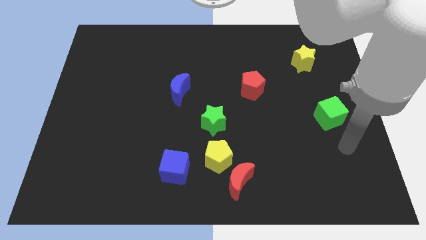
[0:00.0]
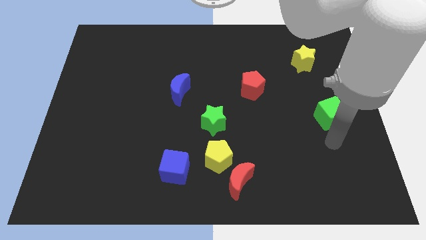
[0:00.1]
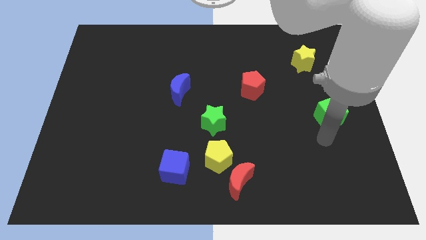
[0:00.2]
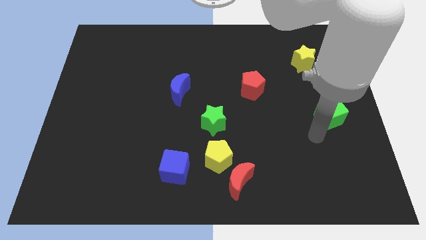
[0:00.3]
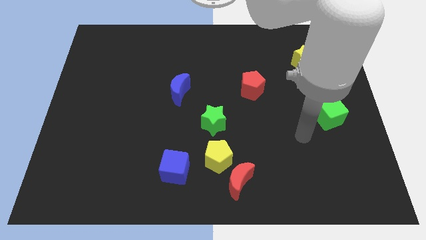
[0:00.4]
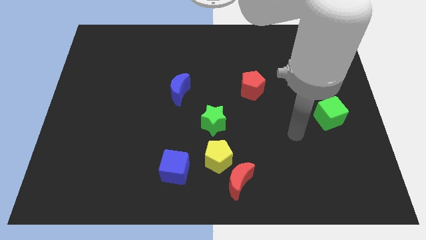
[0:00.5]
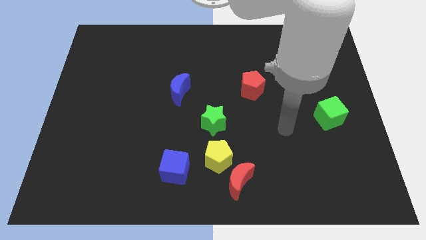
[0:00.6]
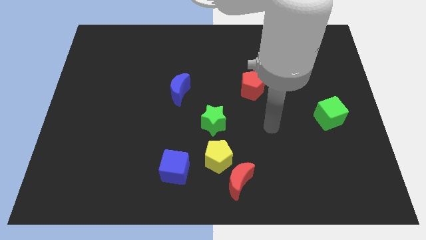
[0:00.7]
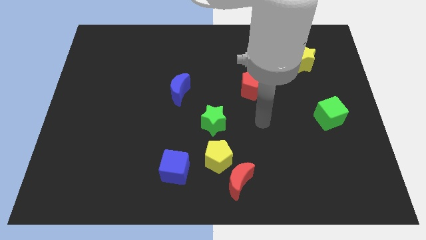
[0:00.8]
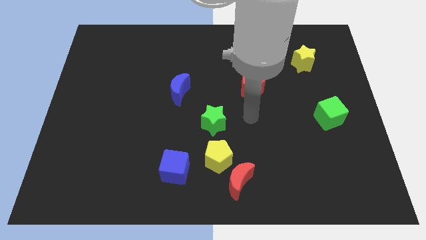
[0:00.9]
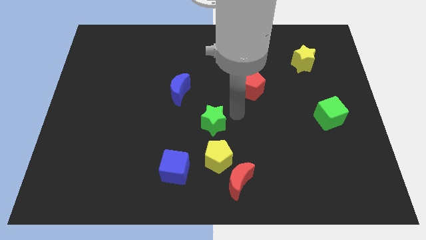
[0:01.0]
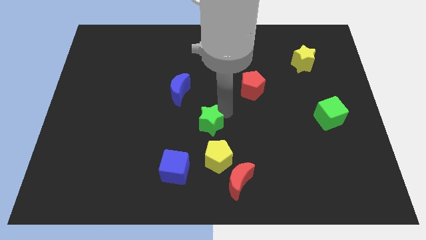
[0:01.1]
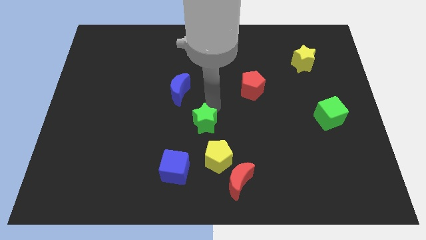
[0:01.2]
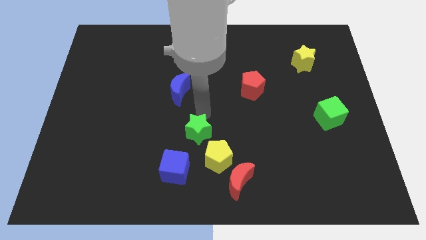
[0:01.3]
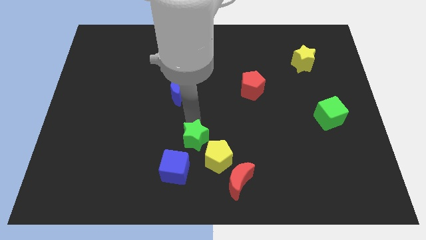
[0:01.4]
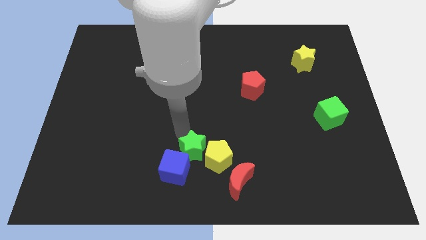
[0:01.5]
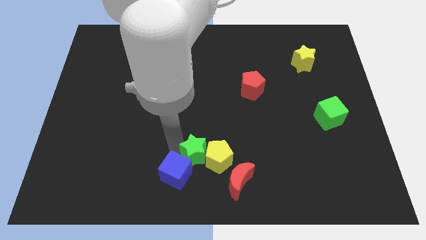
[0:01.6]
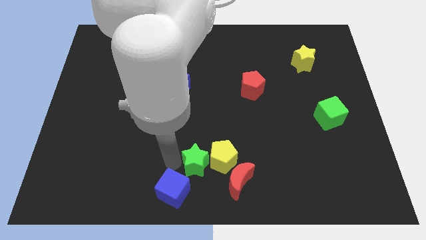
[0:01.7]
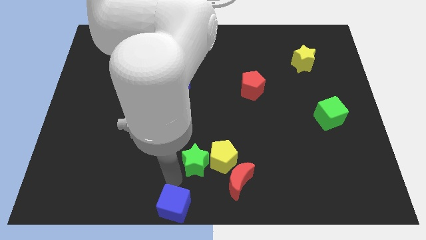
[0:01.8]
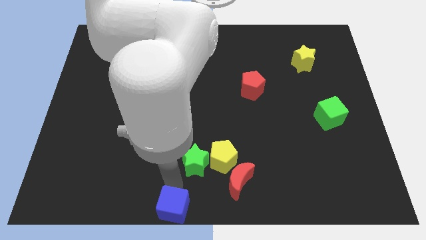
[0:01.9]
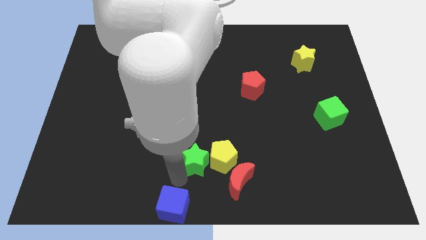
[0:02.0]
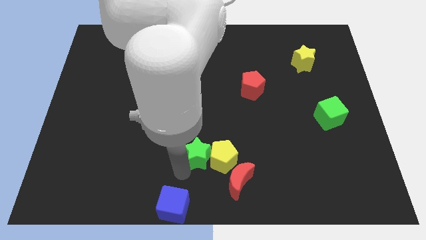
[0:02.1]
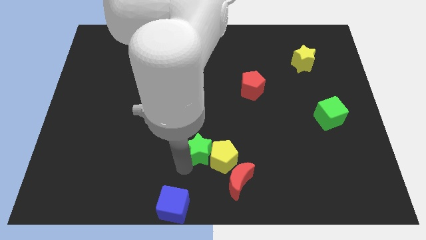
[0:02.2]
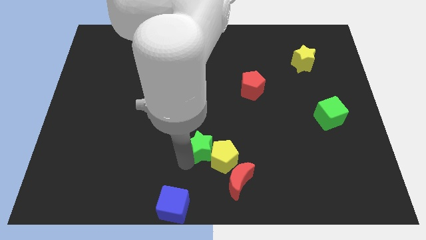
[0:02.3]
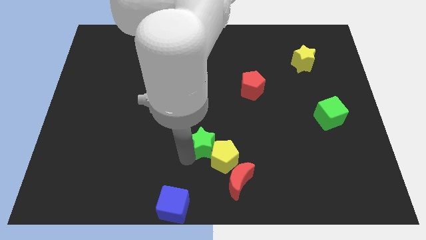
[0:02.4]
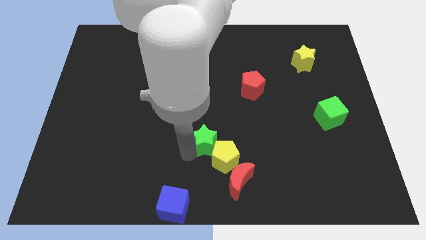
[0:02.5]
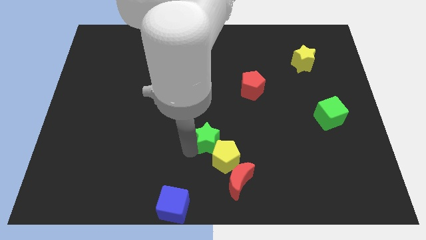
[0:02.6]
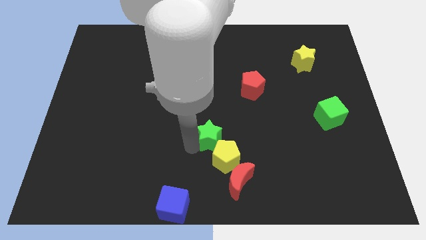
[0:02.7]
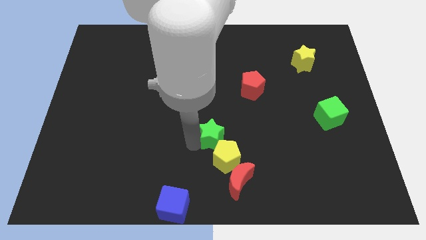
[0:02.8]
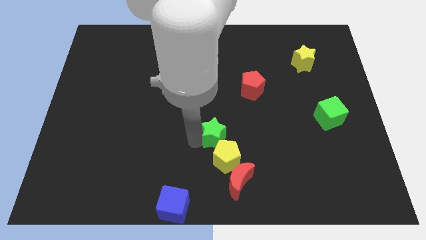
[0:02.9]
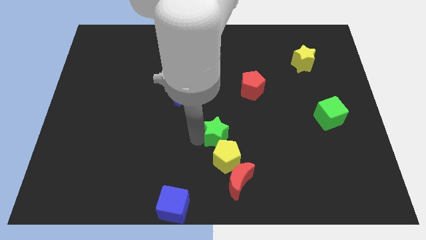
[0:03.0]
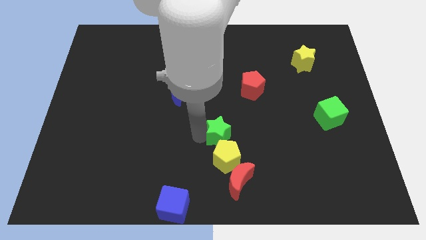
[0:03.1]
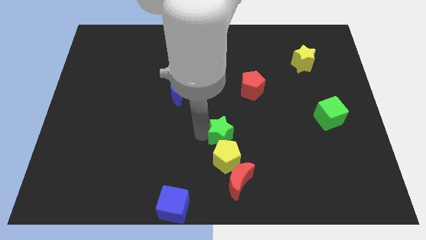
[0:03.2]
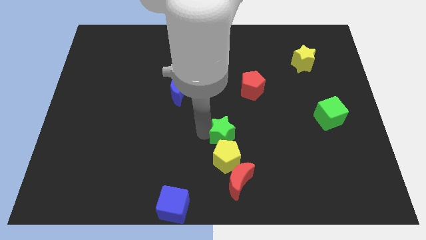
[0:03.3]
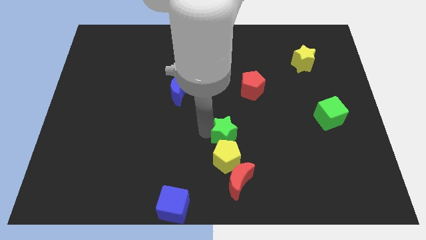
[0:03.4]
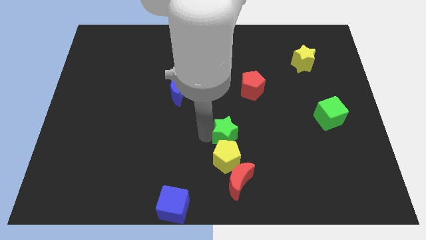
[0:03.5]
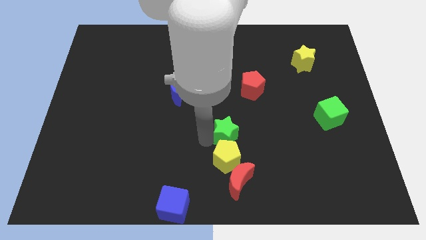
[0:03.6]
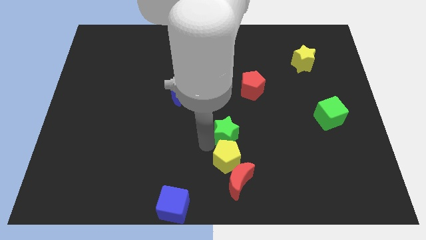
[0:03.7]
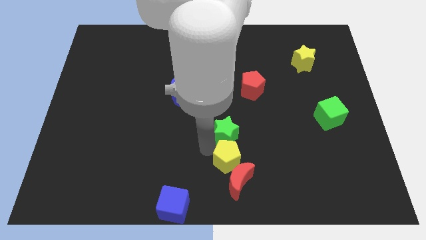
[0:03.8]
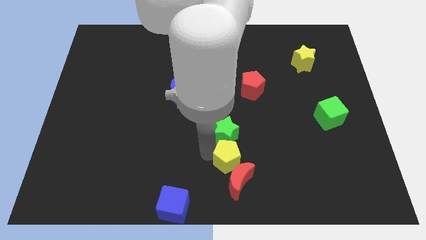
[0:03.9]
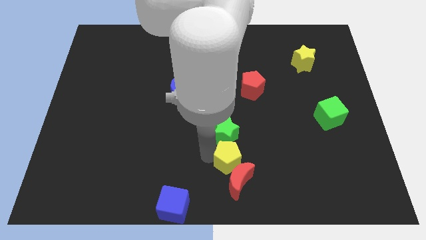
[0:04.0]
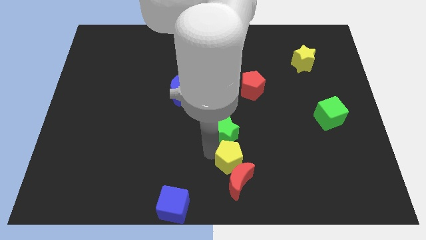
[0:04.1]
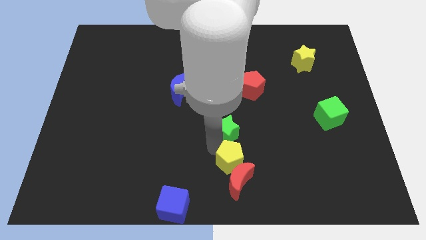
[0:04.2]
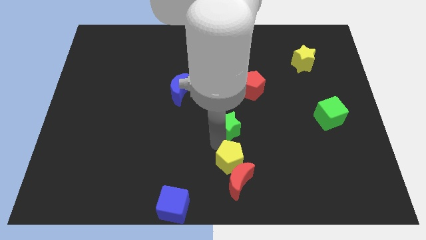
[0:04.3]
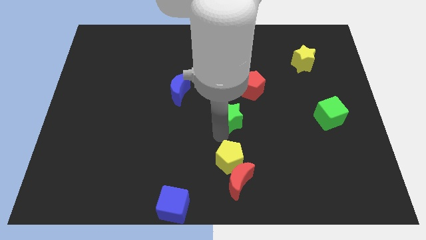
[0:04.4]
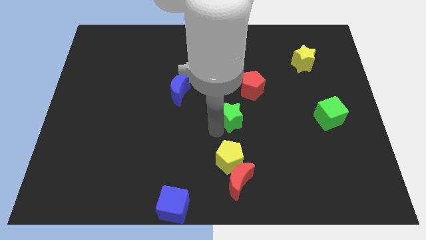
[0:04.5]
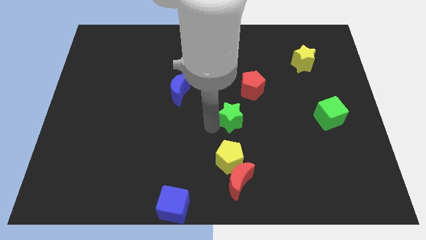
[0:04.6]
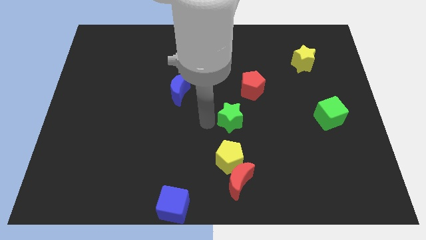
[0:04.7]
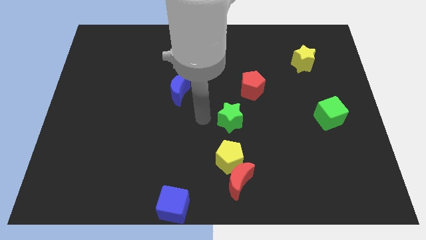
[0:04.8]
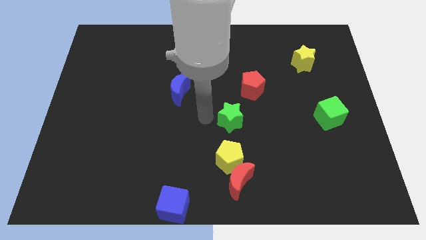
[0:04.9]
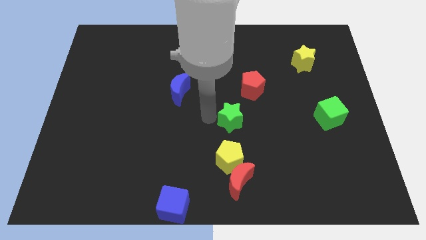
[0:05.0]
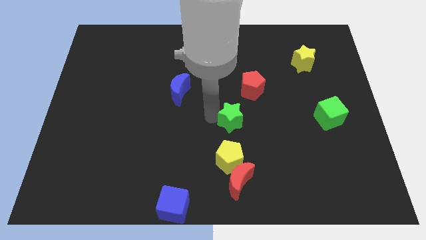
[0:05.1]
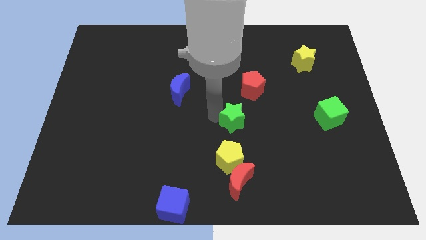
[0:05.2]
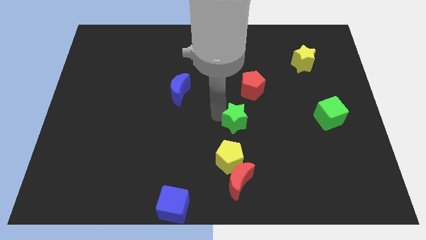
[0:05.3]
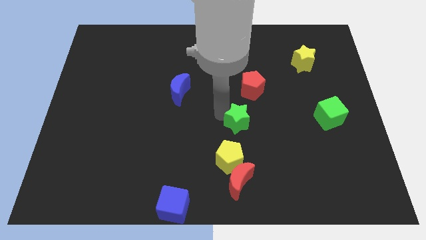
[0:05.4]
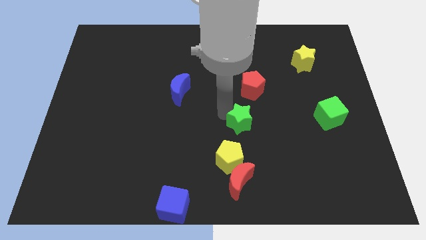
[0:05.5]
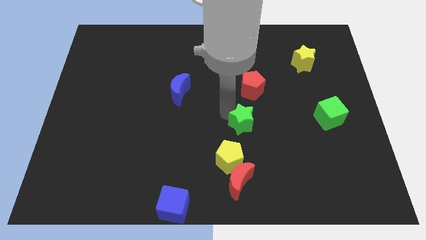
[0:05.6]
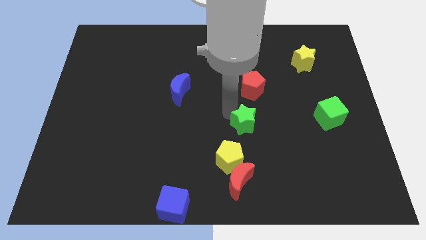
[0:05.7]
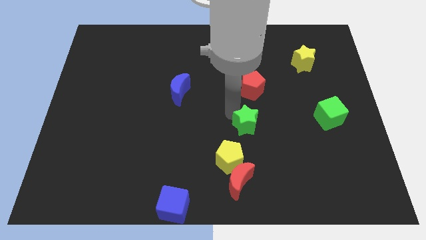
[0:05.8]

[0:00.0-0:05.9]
slightly move the green star to the right

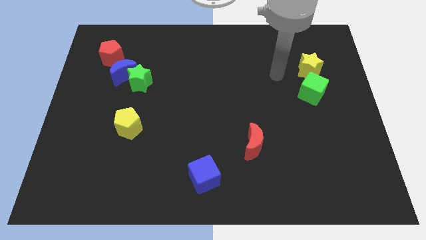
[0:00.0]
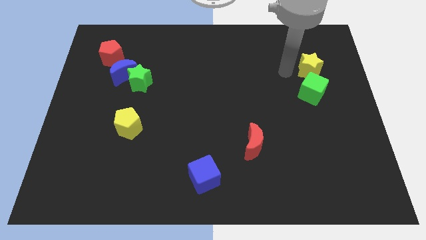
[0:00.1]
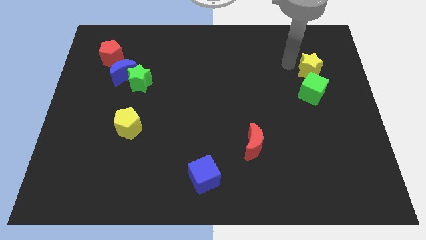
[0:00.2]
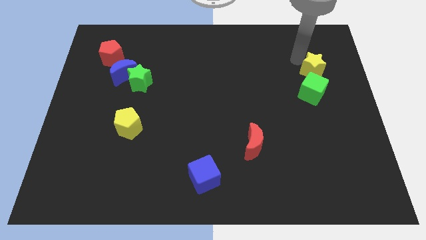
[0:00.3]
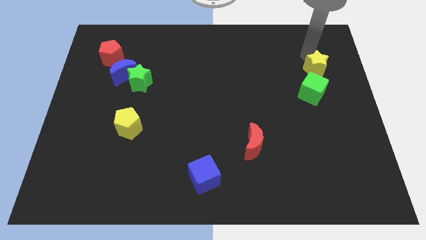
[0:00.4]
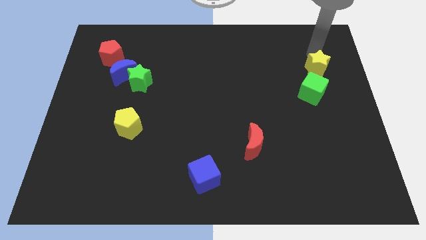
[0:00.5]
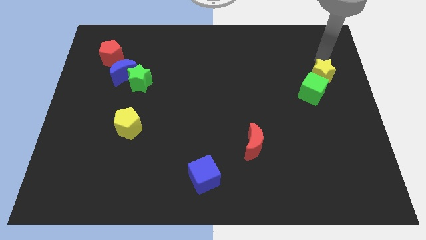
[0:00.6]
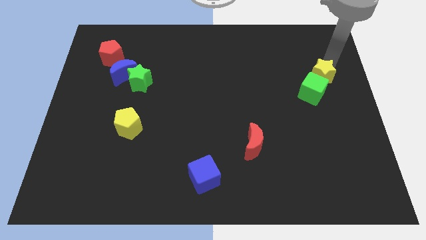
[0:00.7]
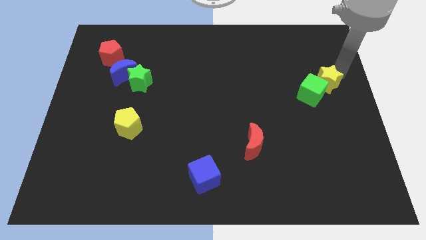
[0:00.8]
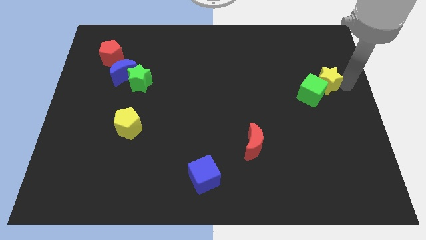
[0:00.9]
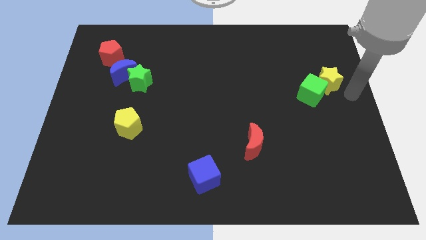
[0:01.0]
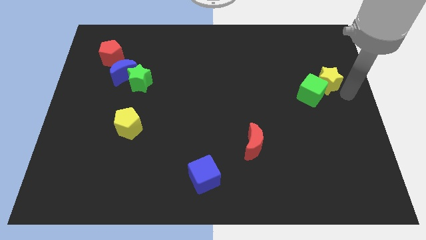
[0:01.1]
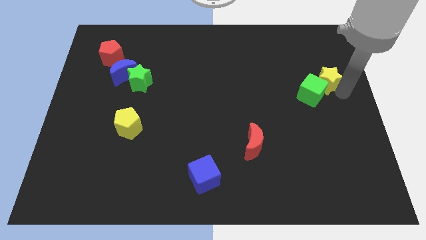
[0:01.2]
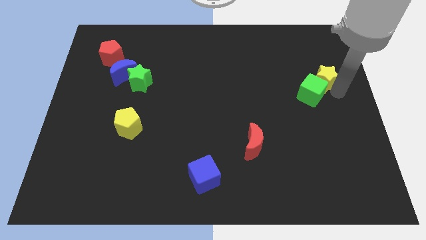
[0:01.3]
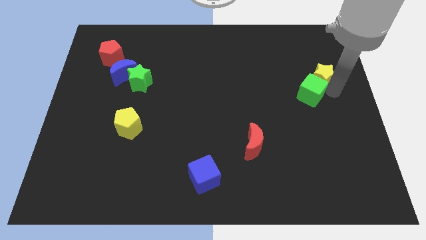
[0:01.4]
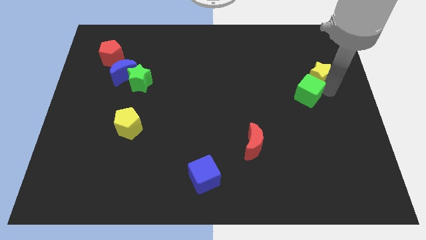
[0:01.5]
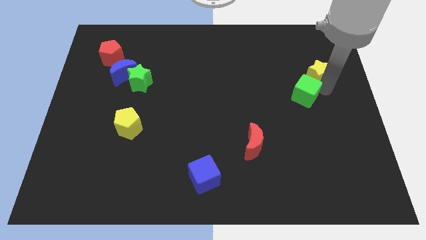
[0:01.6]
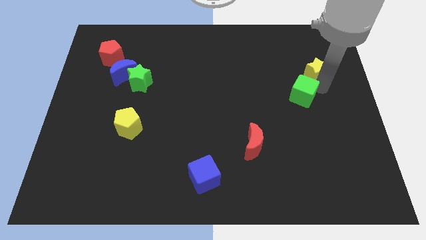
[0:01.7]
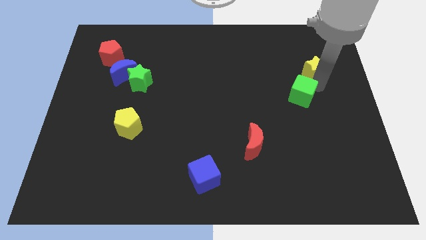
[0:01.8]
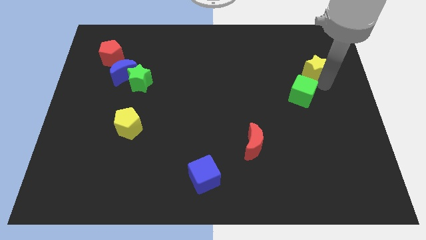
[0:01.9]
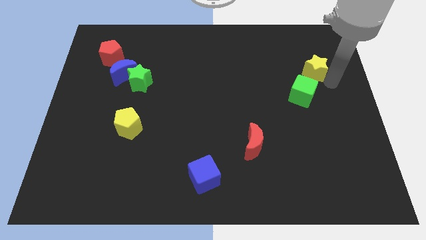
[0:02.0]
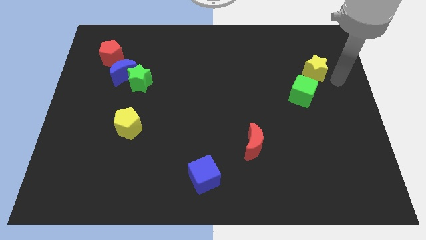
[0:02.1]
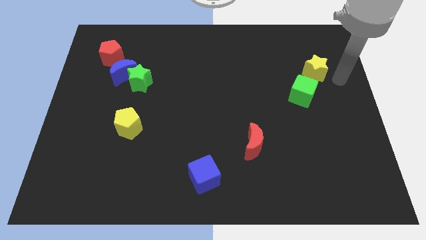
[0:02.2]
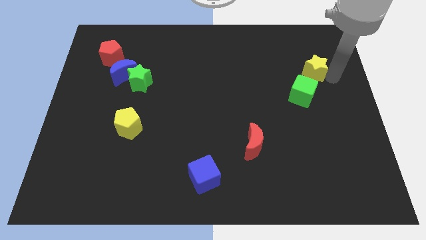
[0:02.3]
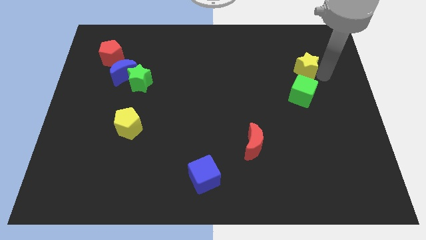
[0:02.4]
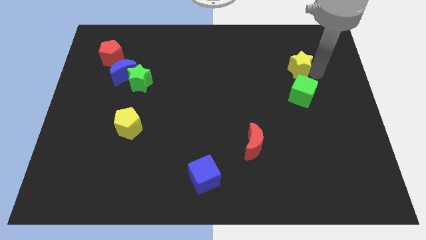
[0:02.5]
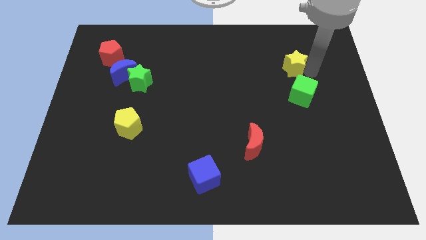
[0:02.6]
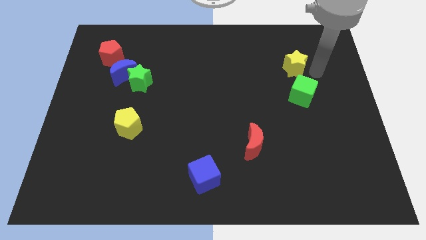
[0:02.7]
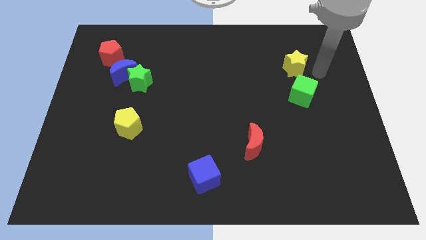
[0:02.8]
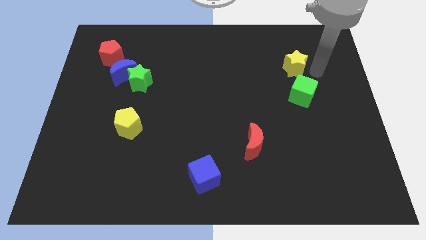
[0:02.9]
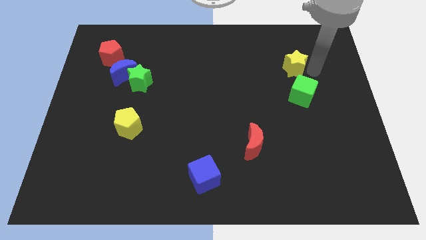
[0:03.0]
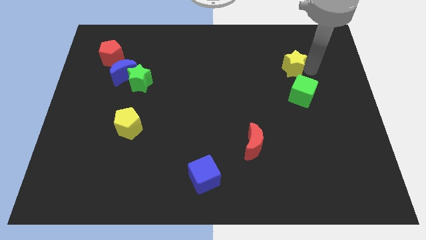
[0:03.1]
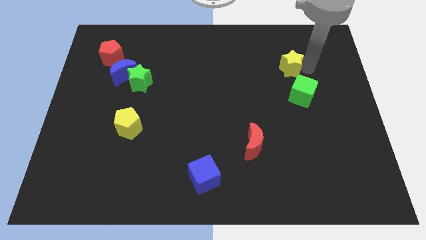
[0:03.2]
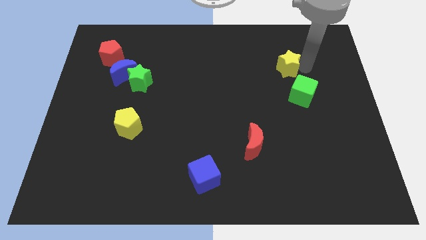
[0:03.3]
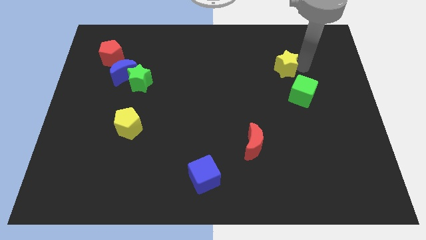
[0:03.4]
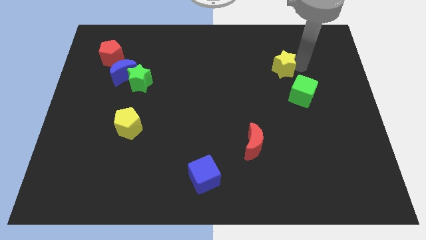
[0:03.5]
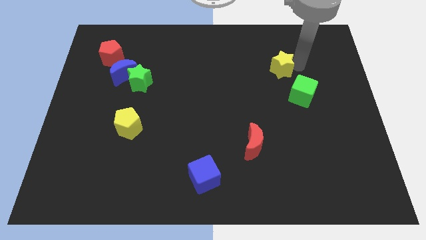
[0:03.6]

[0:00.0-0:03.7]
move the yellow star left a little bit
